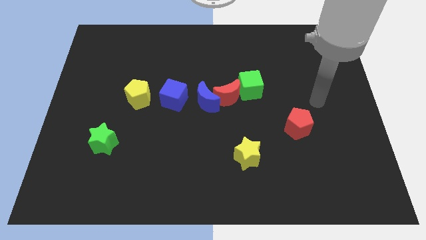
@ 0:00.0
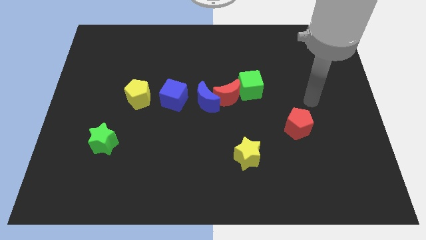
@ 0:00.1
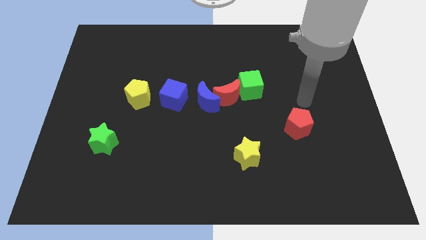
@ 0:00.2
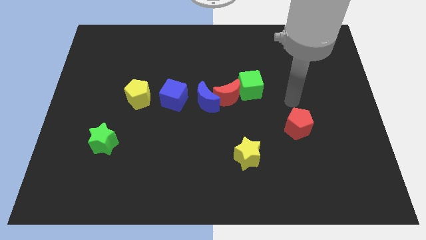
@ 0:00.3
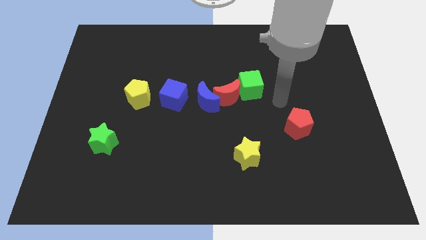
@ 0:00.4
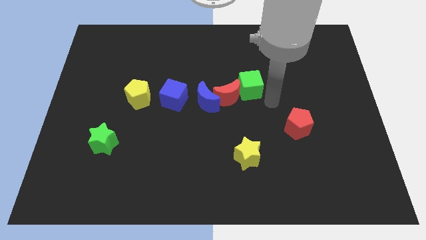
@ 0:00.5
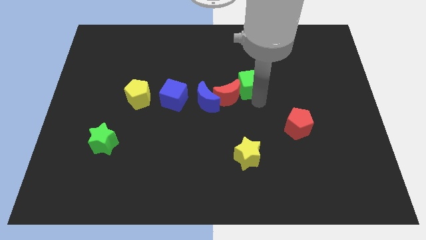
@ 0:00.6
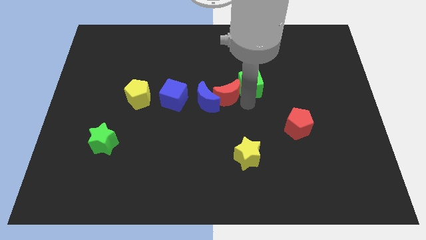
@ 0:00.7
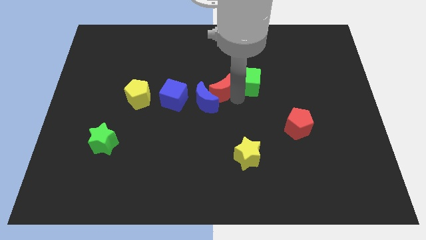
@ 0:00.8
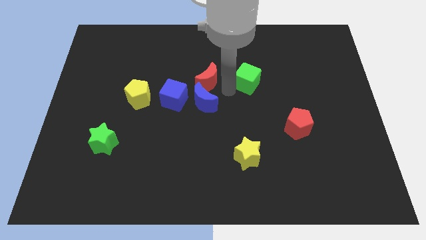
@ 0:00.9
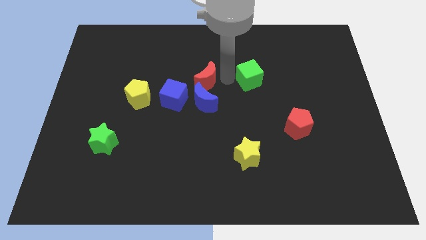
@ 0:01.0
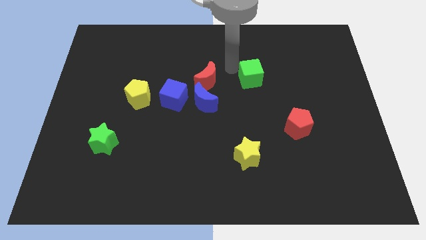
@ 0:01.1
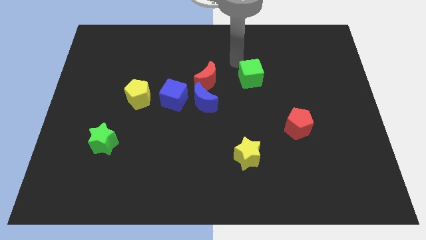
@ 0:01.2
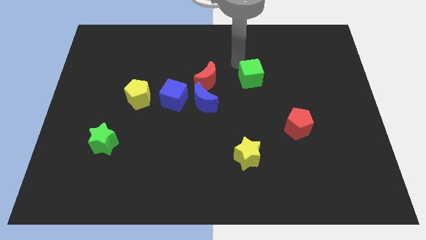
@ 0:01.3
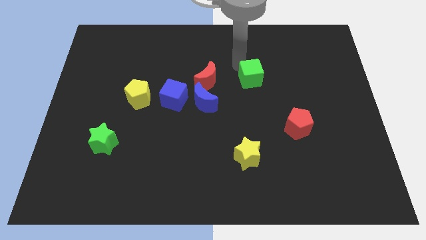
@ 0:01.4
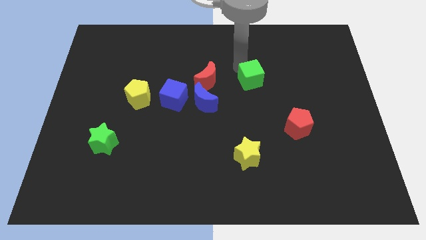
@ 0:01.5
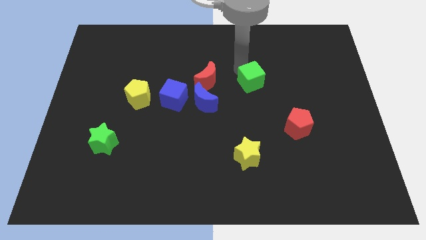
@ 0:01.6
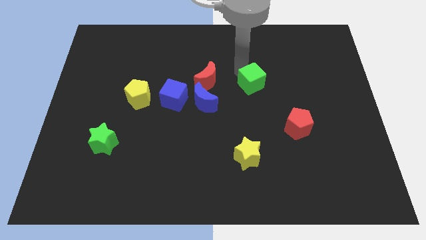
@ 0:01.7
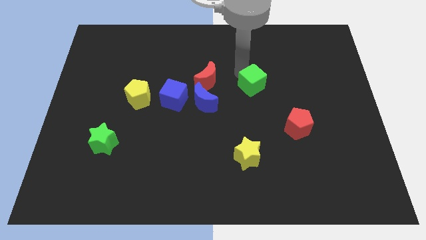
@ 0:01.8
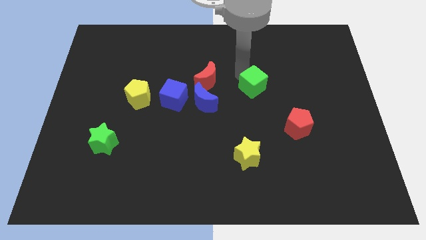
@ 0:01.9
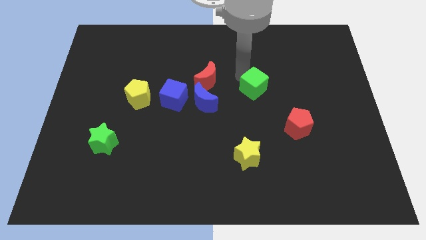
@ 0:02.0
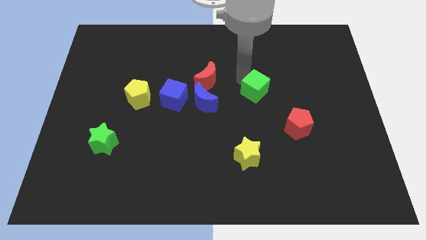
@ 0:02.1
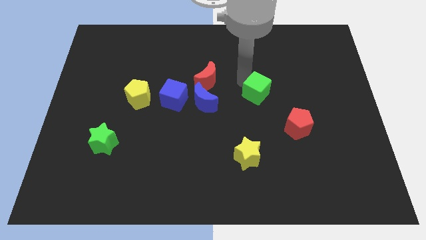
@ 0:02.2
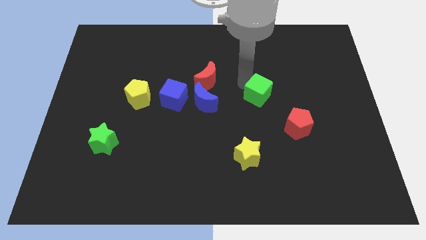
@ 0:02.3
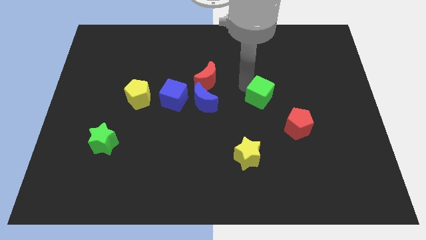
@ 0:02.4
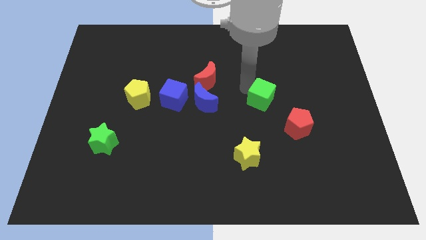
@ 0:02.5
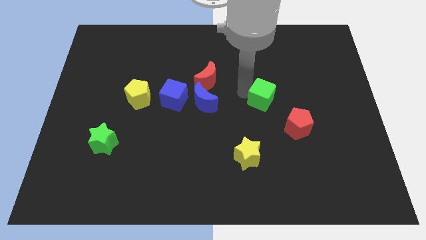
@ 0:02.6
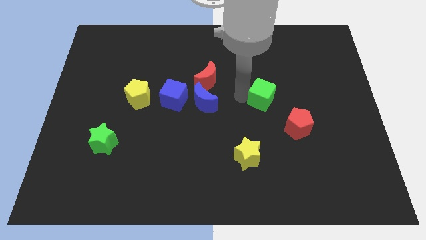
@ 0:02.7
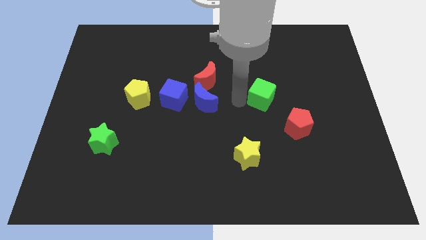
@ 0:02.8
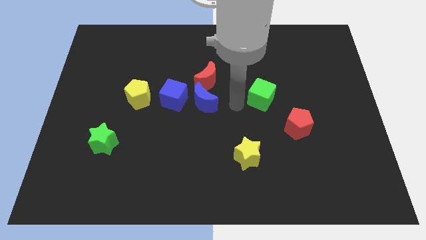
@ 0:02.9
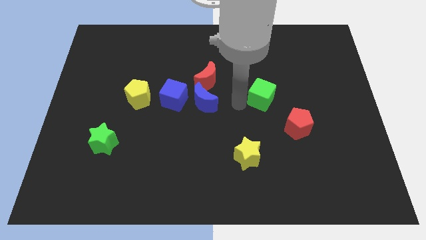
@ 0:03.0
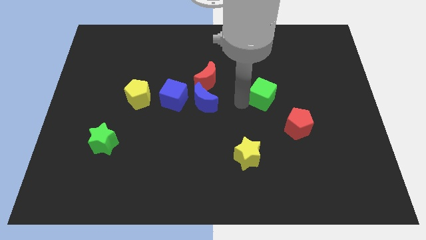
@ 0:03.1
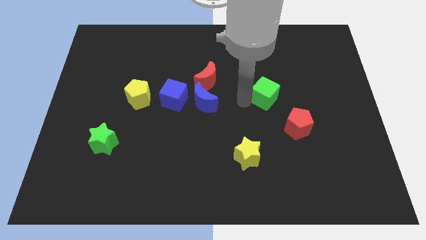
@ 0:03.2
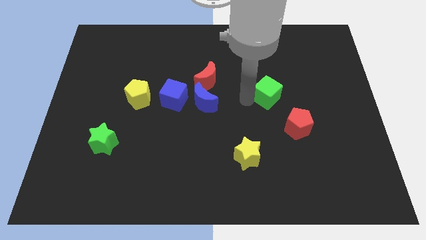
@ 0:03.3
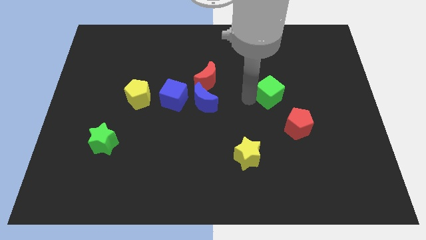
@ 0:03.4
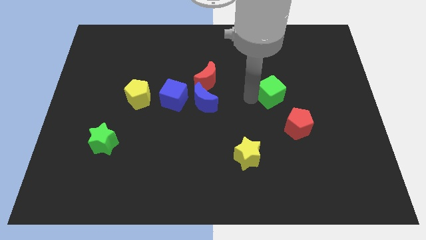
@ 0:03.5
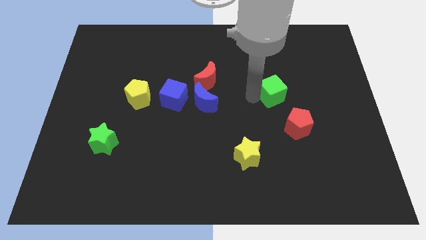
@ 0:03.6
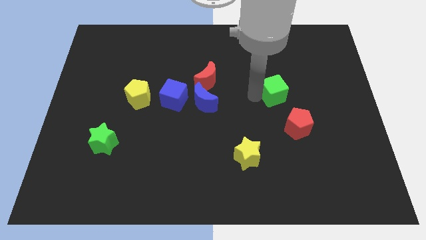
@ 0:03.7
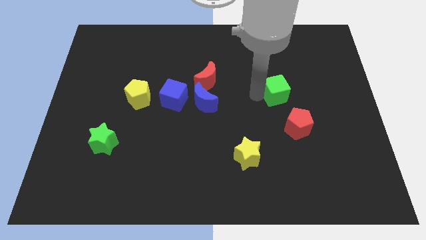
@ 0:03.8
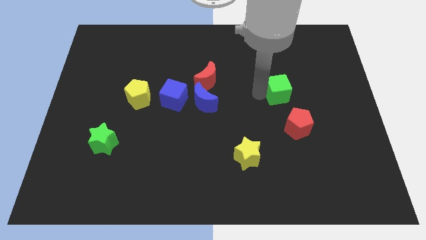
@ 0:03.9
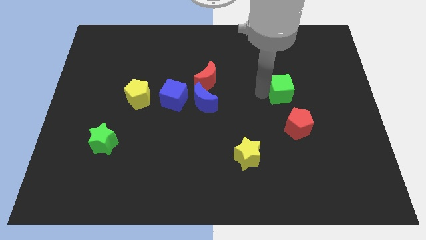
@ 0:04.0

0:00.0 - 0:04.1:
push the green cube a bit right

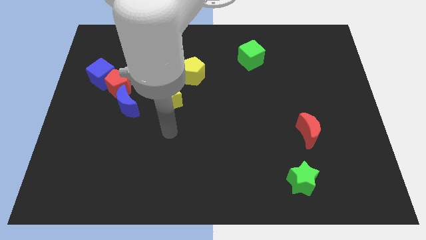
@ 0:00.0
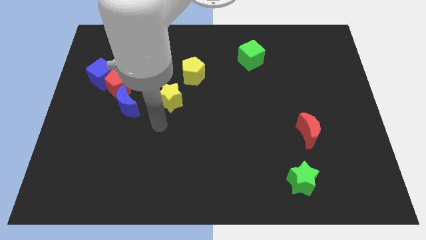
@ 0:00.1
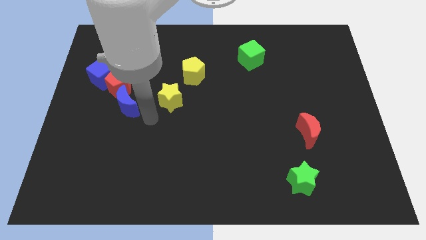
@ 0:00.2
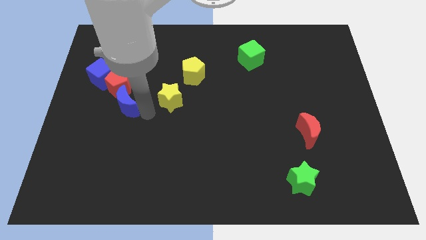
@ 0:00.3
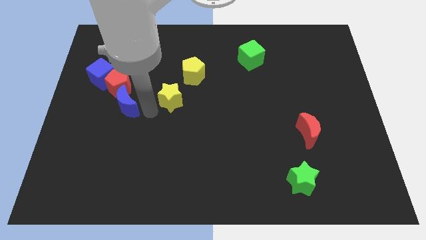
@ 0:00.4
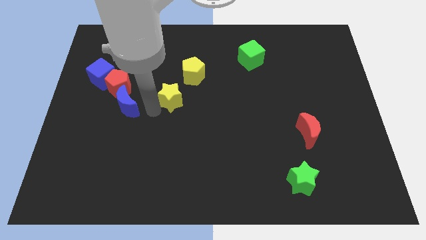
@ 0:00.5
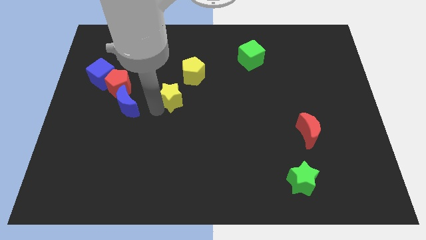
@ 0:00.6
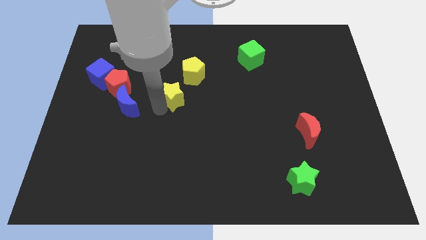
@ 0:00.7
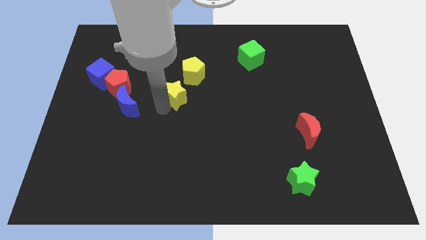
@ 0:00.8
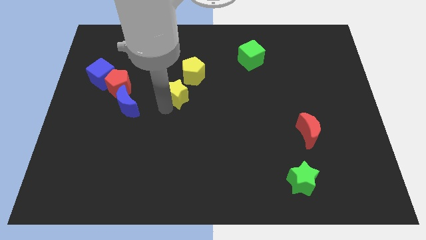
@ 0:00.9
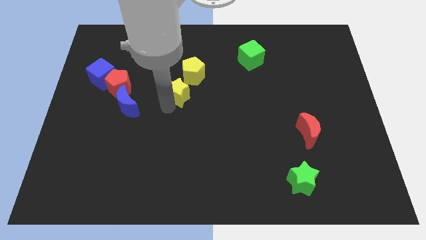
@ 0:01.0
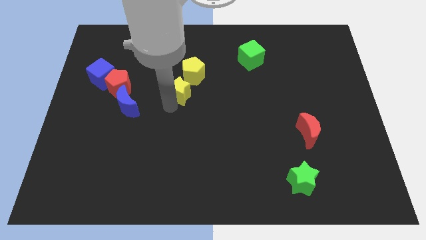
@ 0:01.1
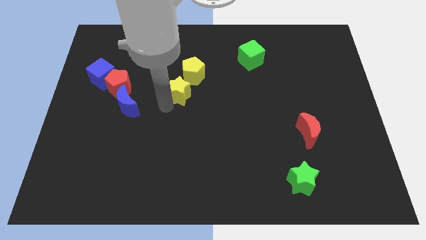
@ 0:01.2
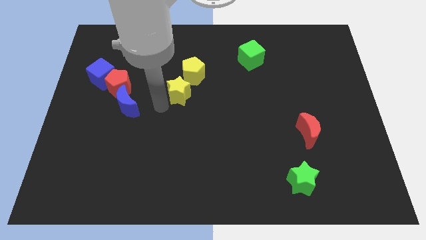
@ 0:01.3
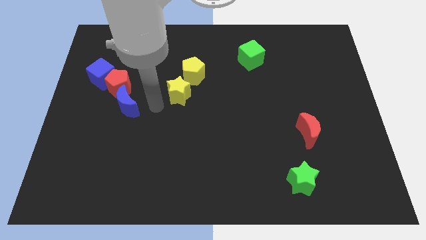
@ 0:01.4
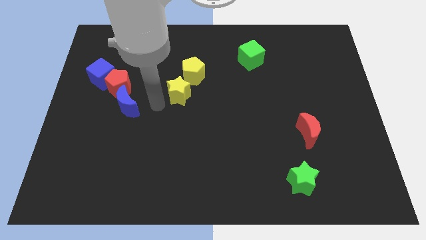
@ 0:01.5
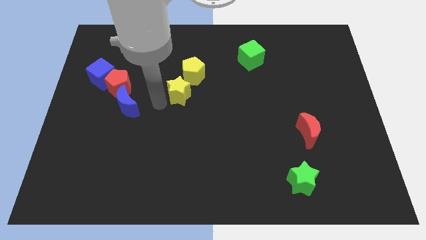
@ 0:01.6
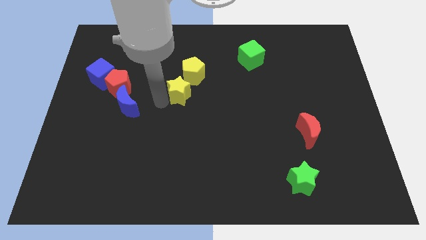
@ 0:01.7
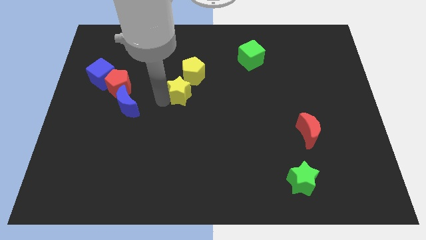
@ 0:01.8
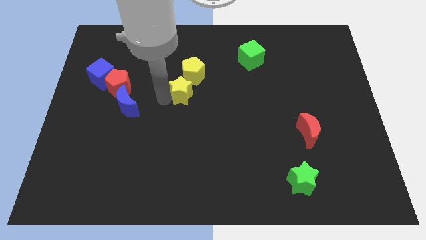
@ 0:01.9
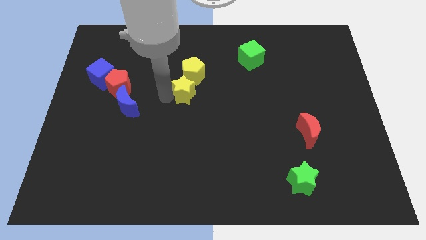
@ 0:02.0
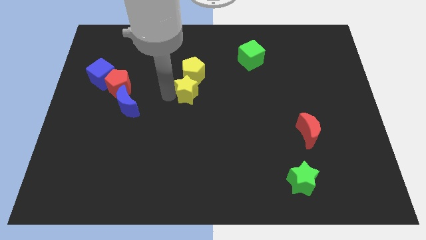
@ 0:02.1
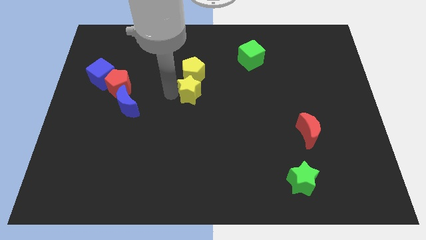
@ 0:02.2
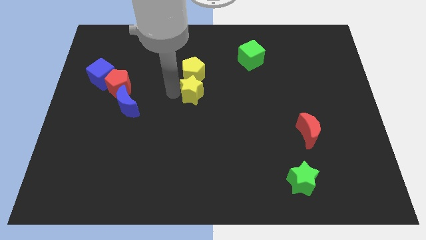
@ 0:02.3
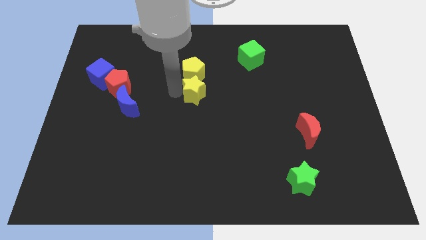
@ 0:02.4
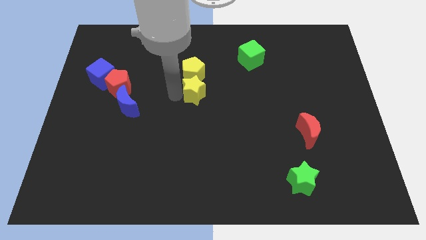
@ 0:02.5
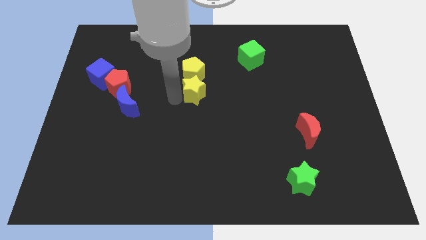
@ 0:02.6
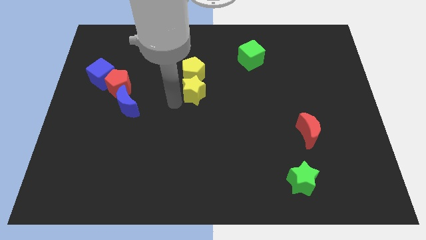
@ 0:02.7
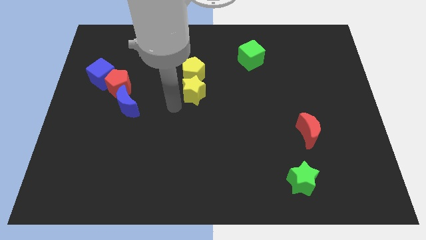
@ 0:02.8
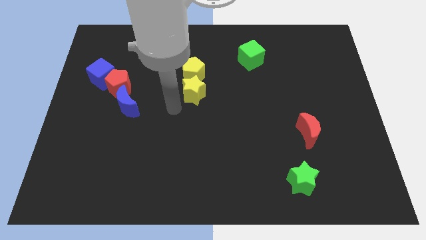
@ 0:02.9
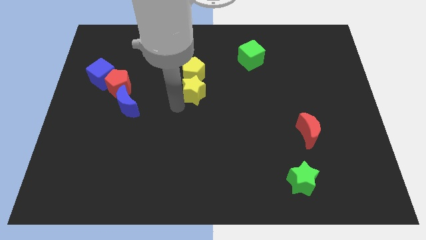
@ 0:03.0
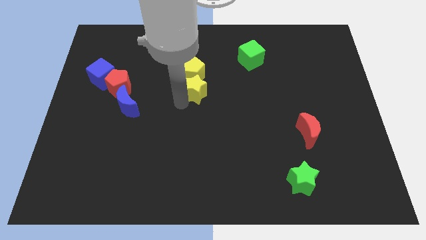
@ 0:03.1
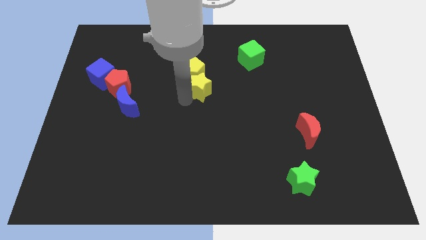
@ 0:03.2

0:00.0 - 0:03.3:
slide the yellow star upwards and to the right a little bit

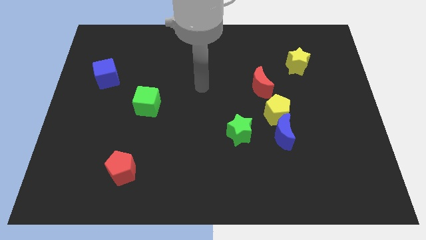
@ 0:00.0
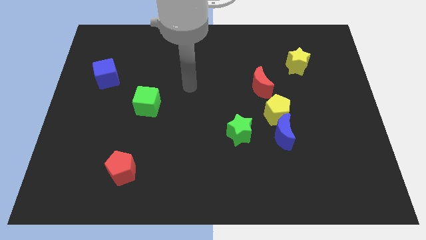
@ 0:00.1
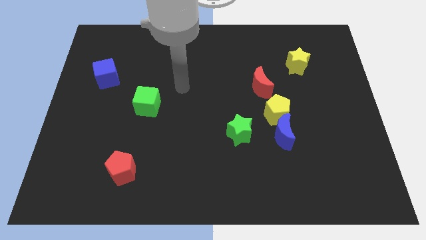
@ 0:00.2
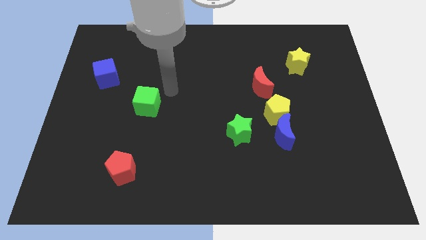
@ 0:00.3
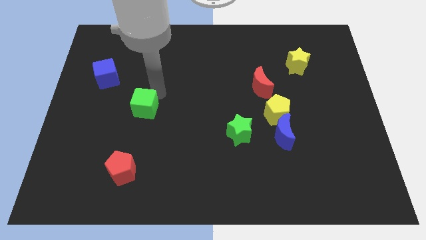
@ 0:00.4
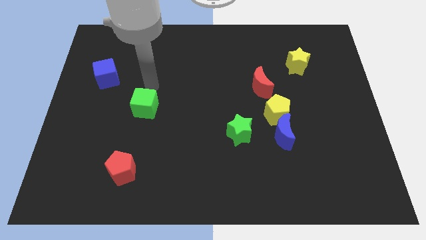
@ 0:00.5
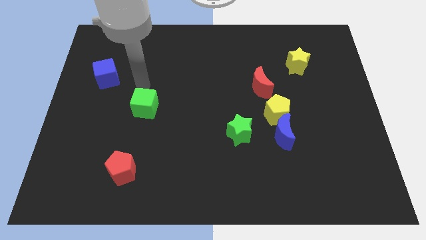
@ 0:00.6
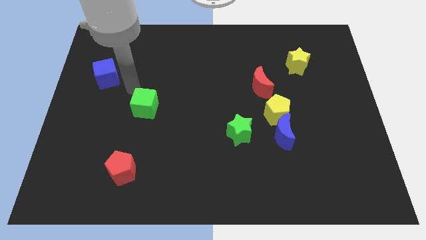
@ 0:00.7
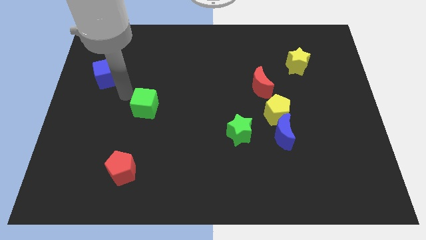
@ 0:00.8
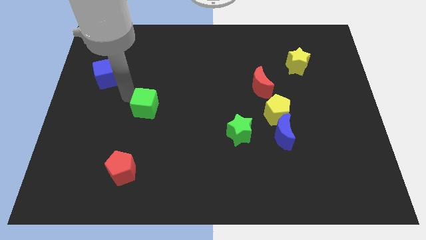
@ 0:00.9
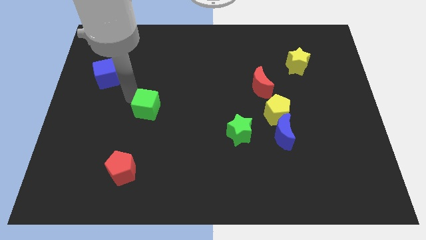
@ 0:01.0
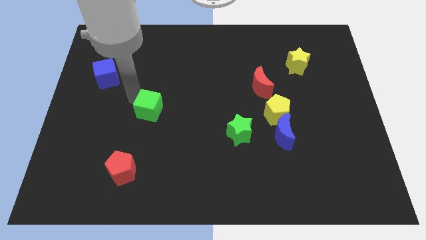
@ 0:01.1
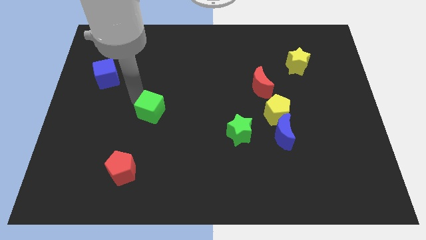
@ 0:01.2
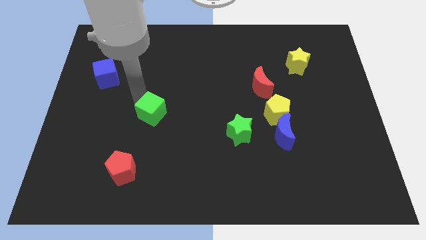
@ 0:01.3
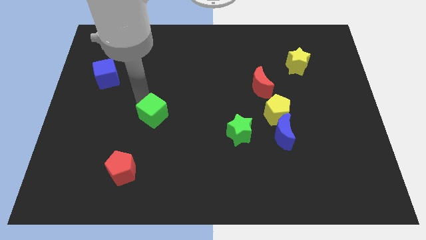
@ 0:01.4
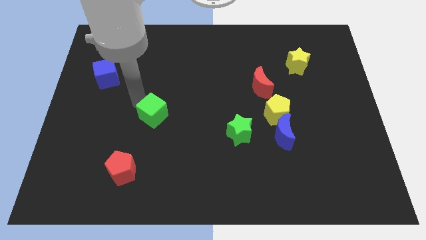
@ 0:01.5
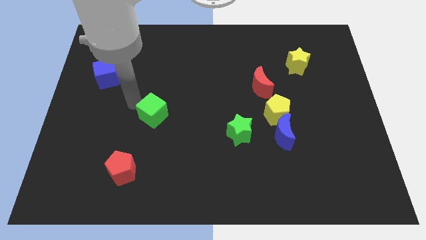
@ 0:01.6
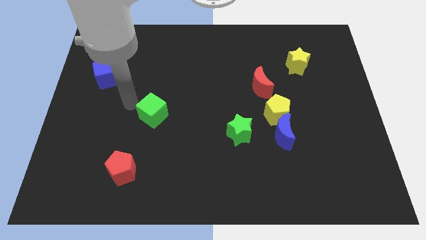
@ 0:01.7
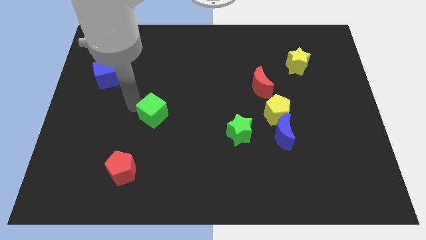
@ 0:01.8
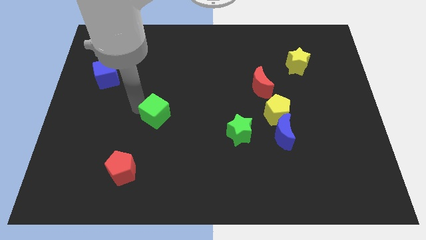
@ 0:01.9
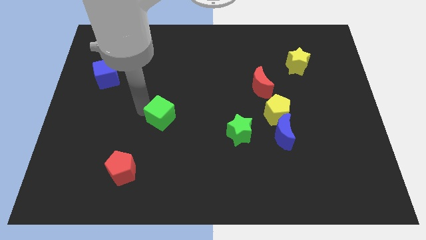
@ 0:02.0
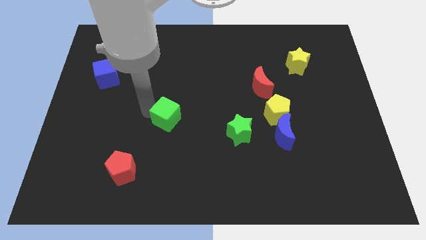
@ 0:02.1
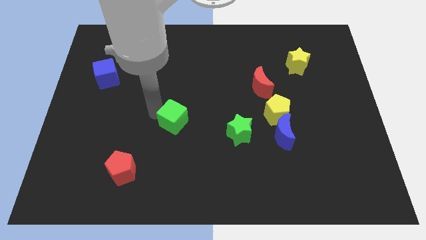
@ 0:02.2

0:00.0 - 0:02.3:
slide the green cube a little bit down and to the right diagonally
